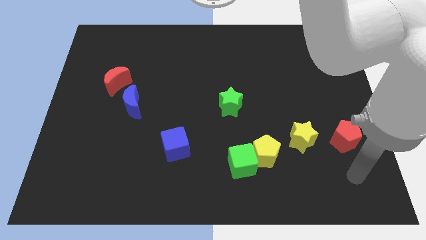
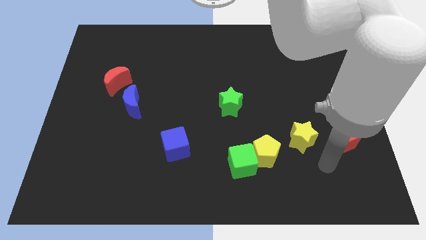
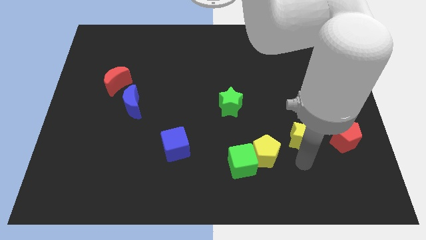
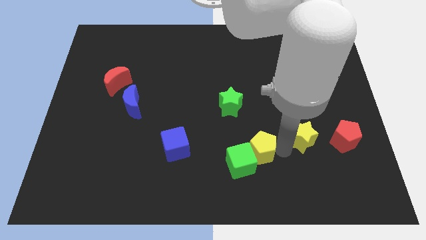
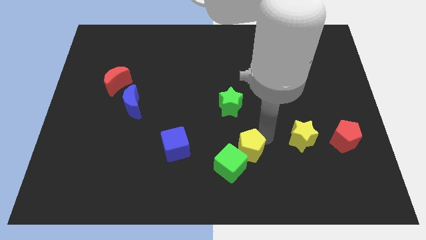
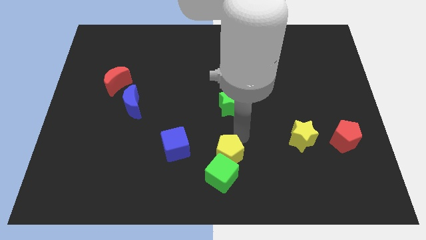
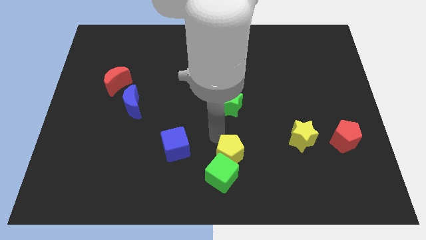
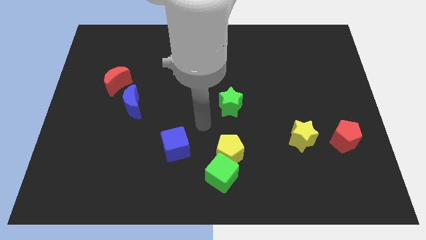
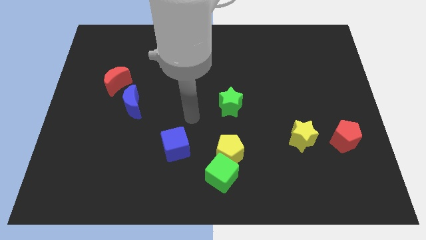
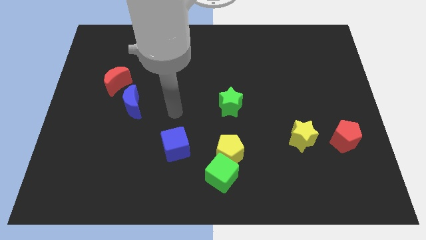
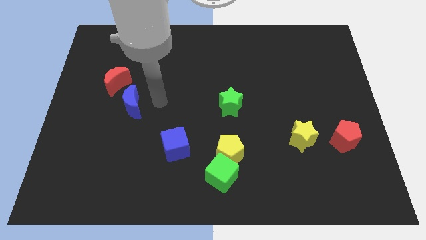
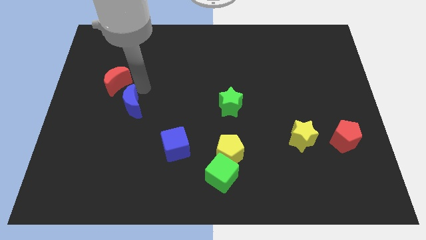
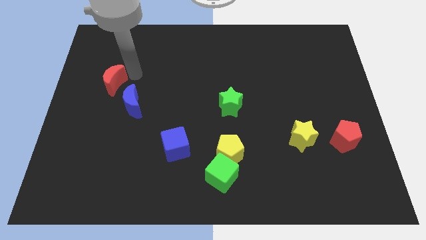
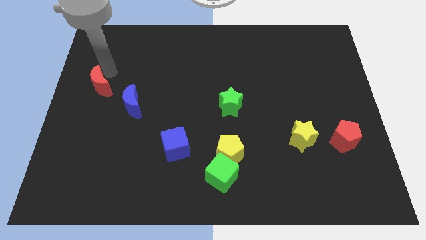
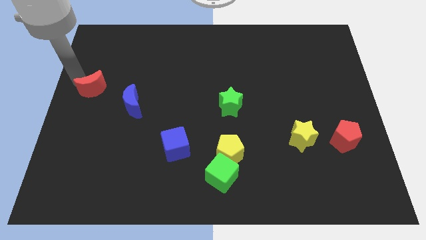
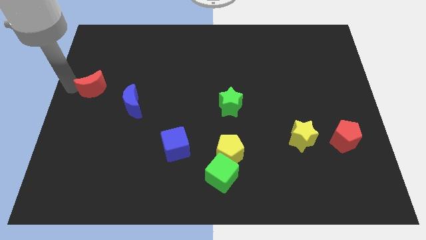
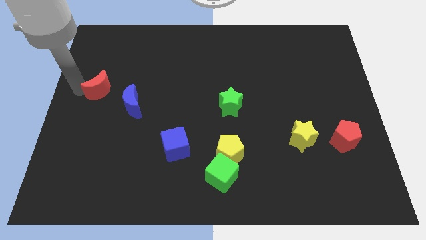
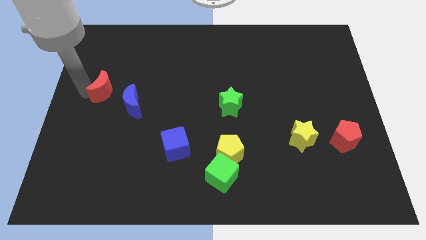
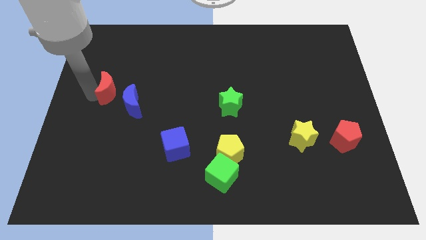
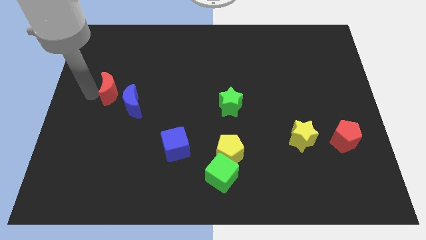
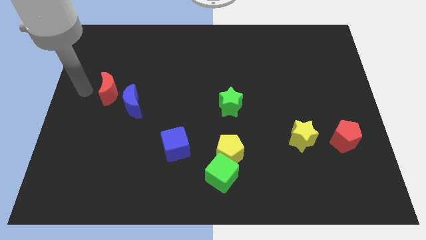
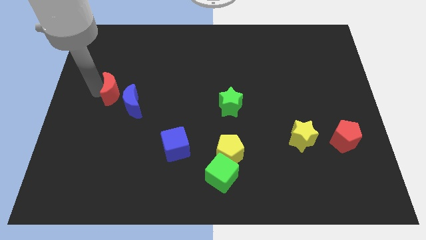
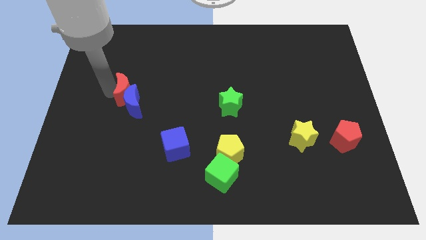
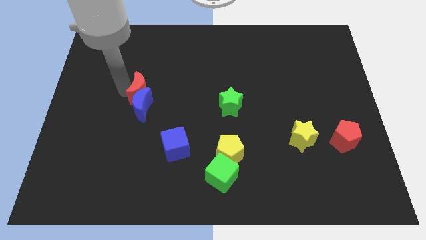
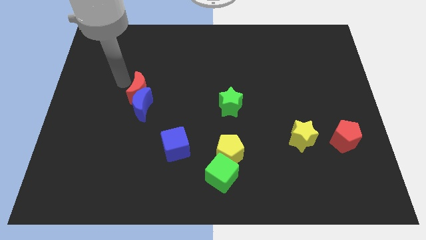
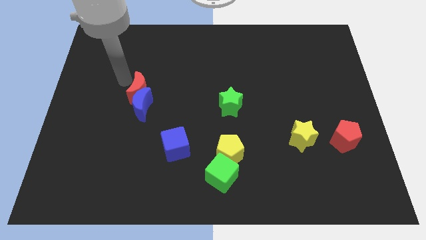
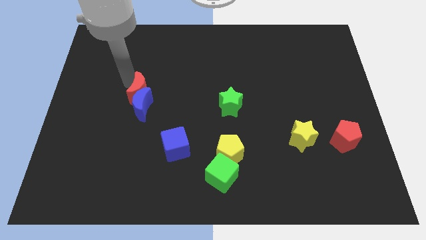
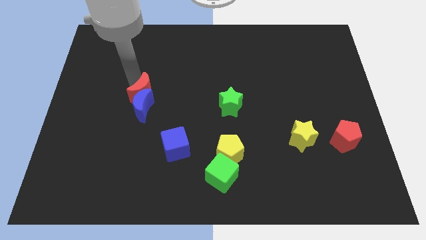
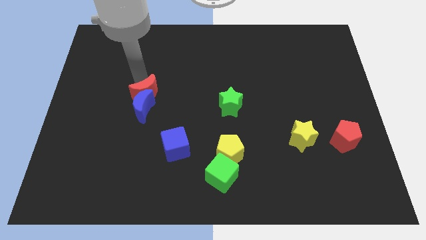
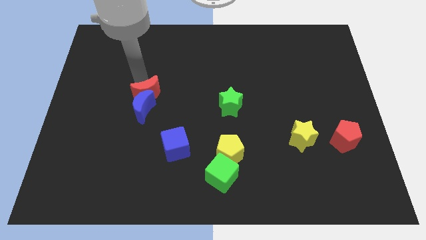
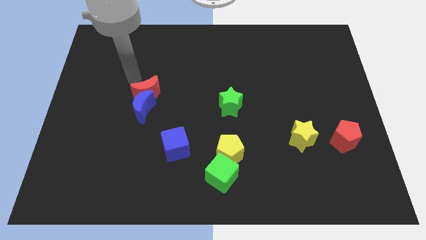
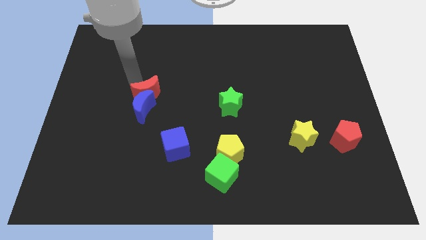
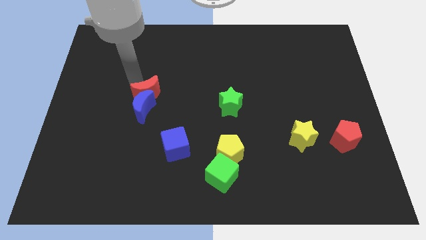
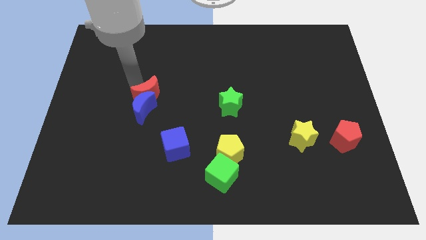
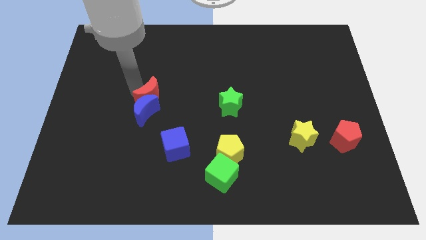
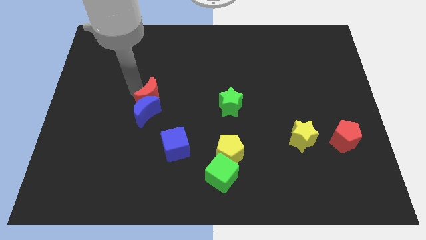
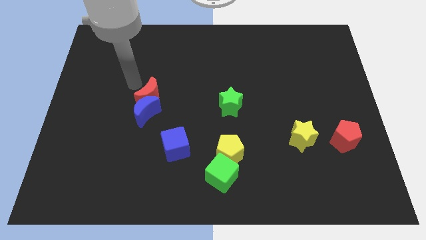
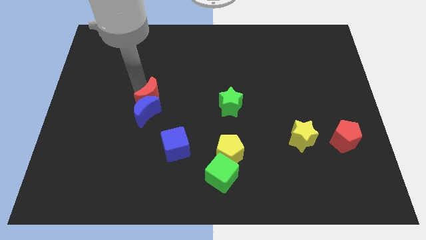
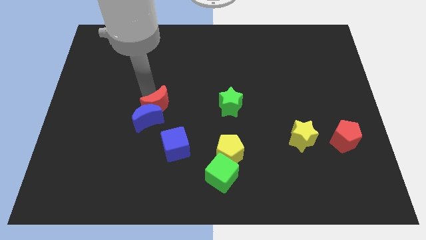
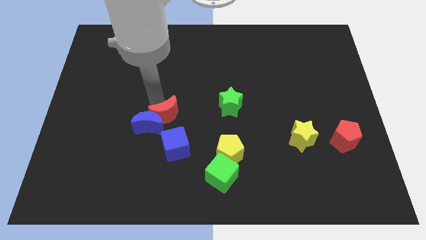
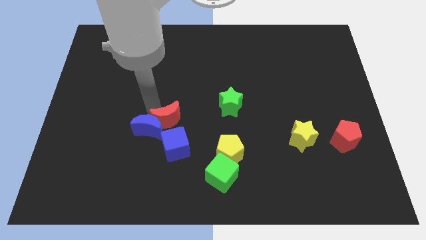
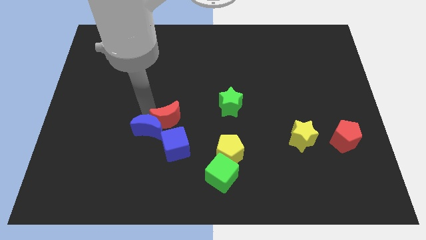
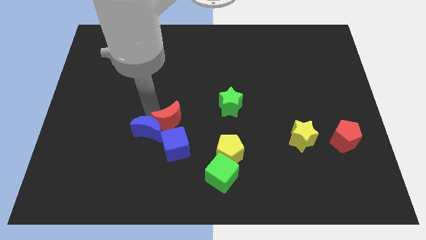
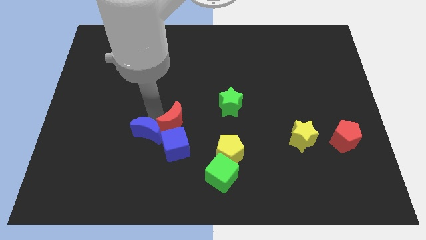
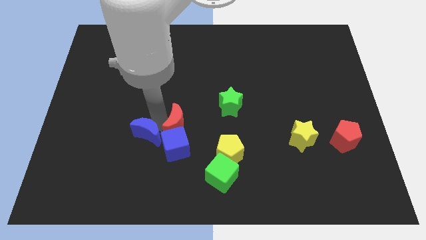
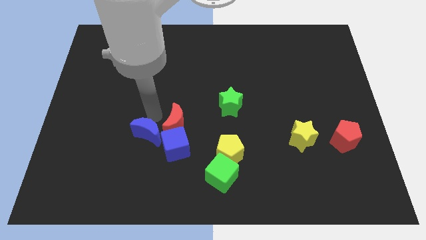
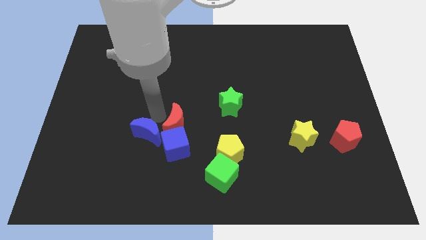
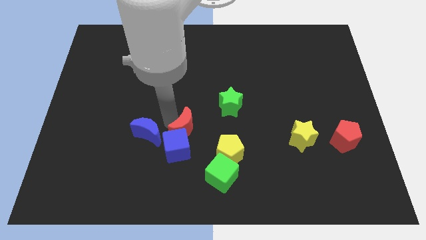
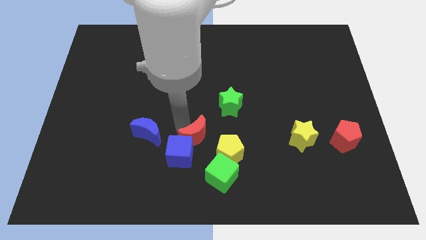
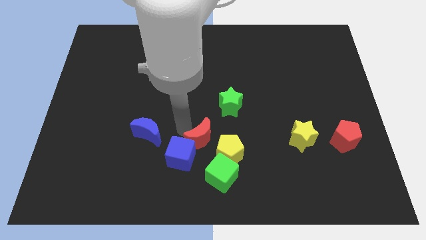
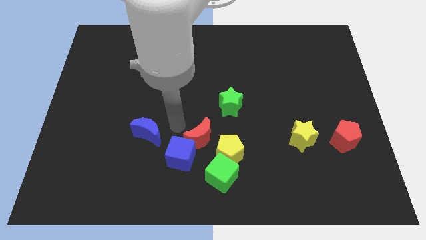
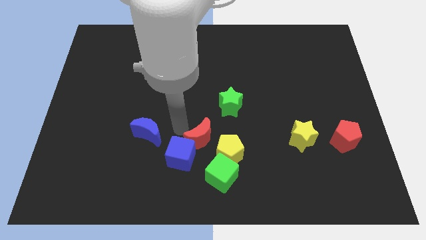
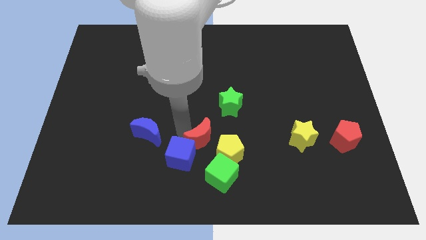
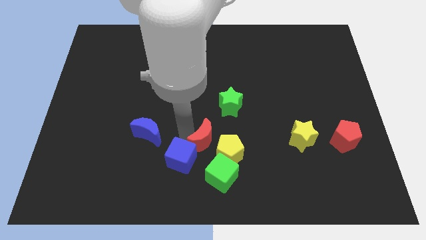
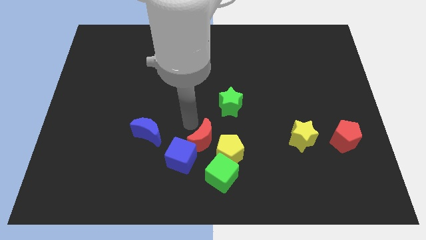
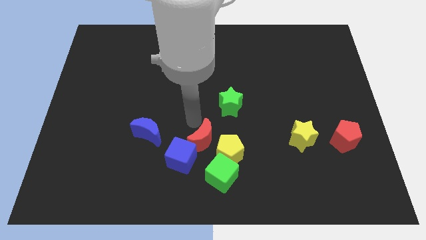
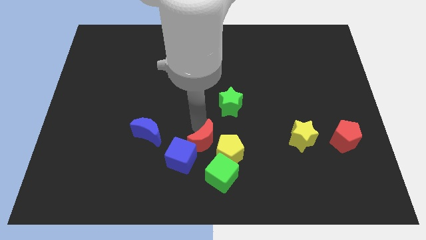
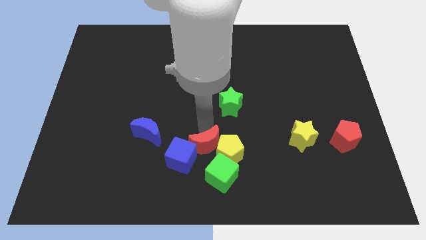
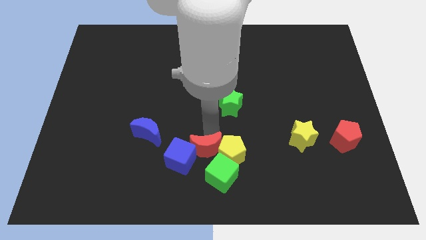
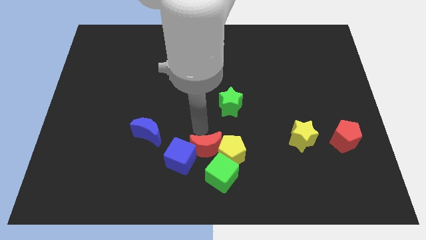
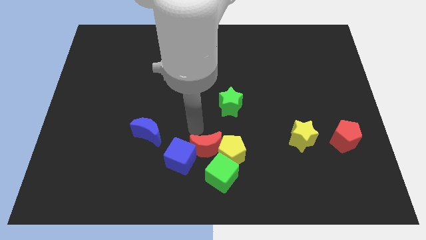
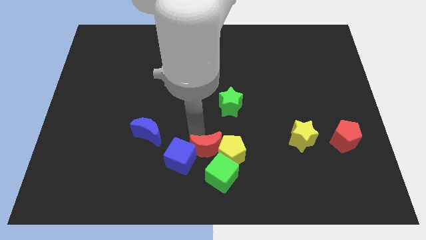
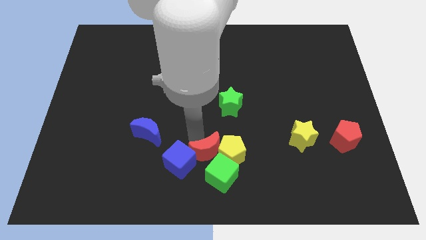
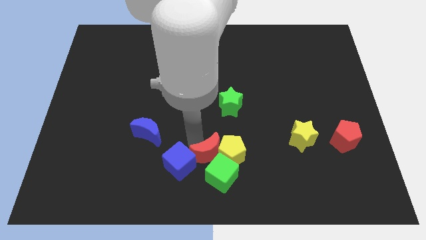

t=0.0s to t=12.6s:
move the red moon next to the green cube

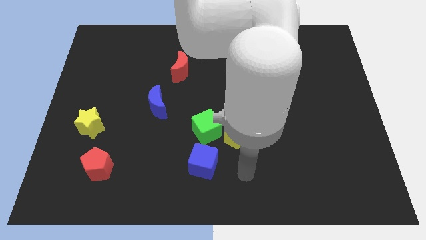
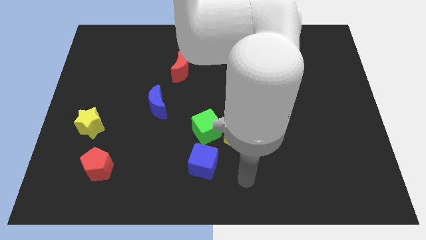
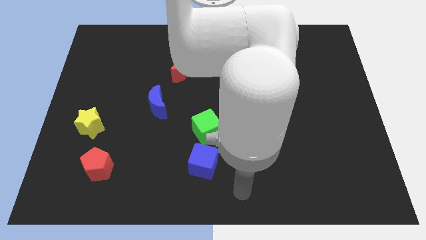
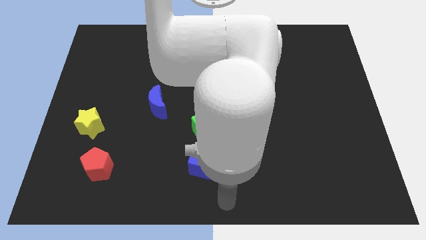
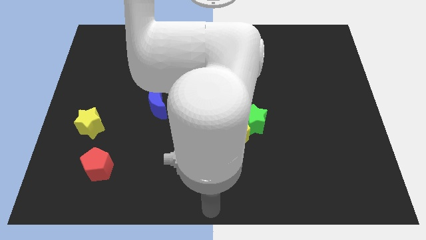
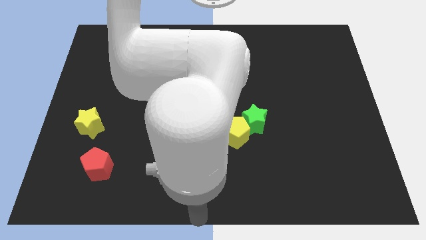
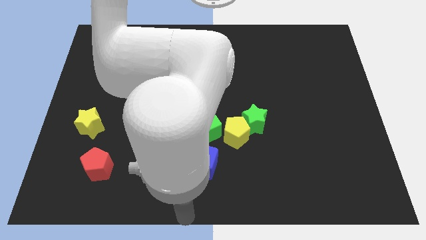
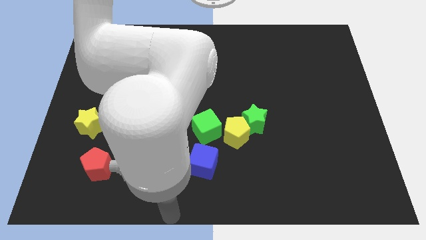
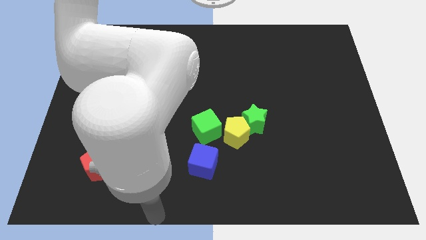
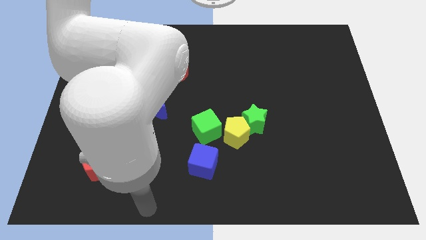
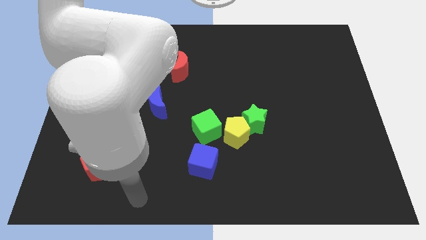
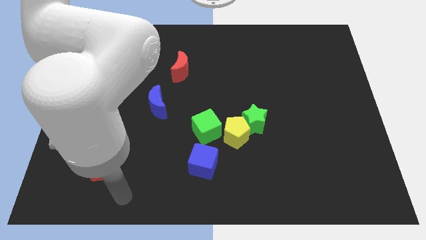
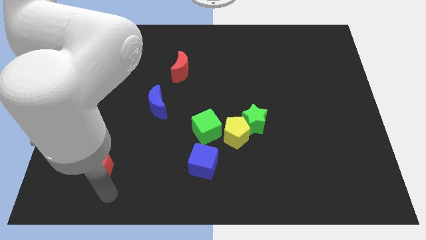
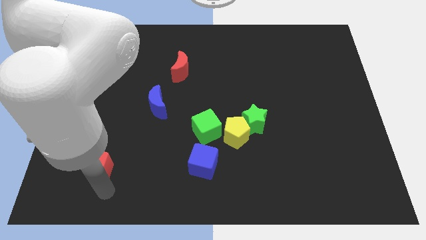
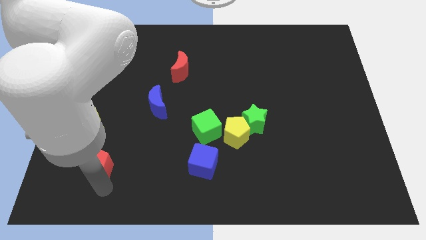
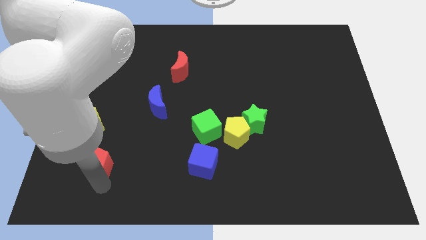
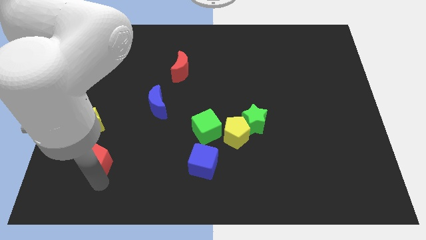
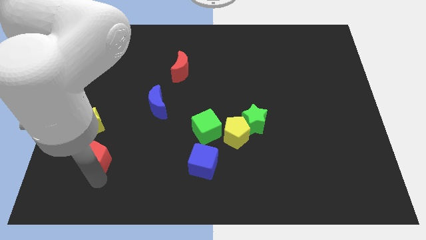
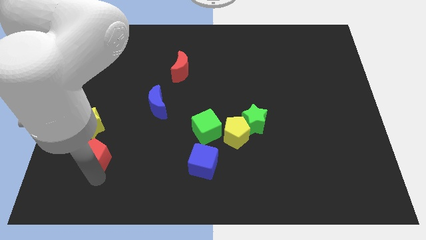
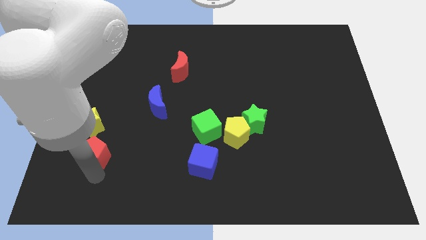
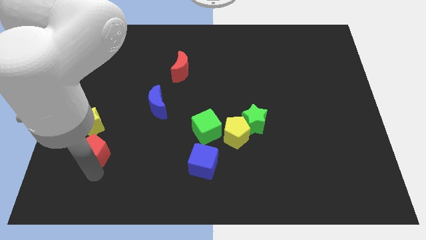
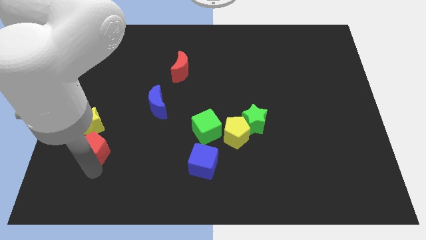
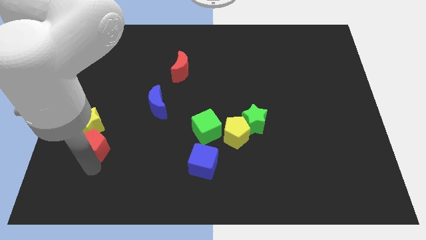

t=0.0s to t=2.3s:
move the red pentagon next to the yellow star
